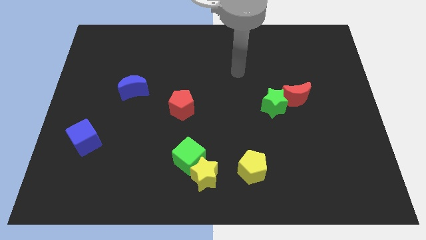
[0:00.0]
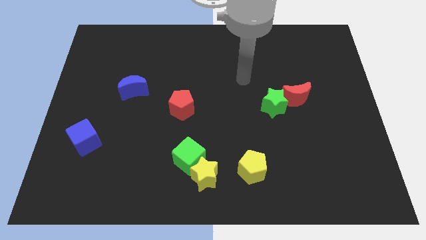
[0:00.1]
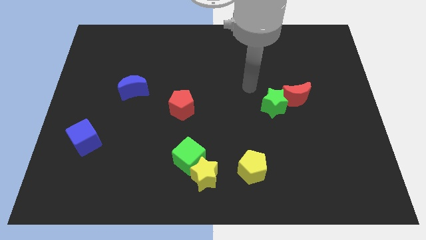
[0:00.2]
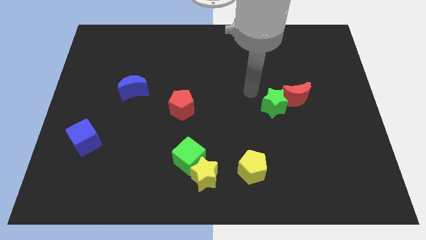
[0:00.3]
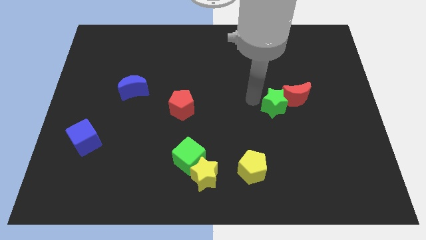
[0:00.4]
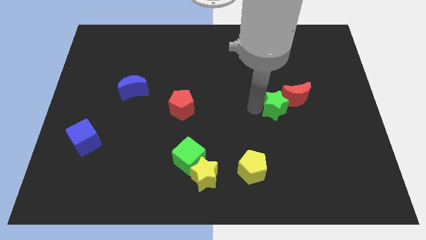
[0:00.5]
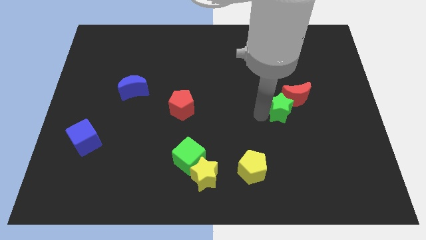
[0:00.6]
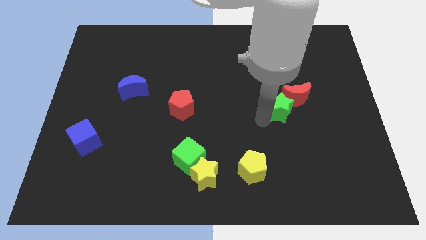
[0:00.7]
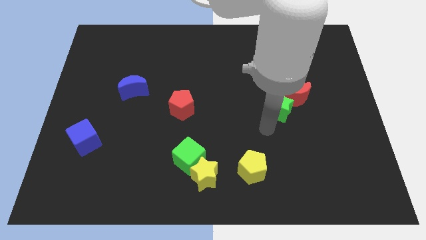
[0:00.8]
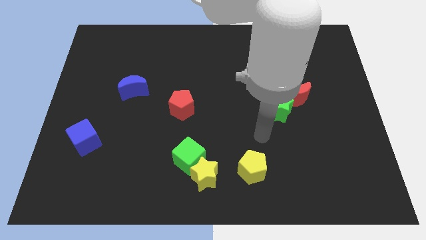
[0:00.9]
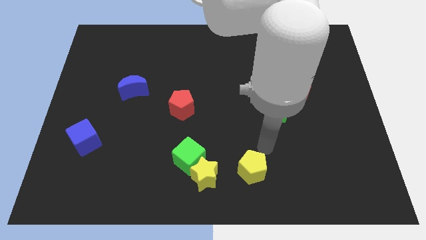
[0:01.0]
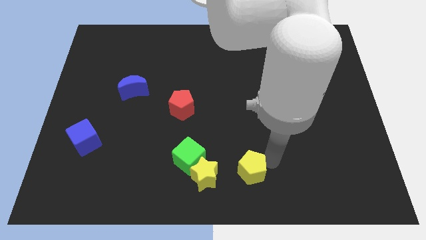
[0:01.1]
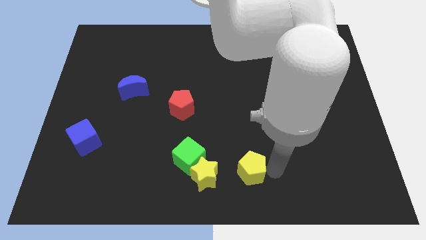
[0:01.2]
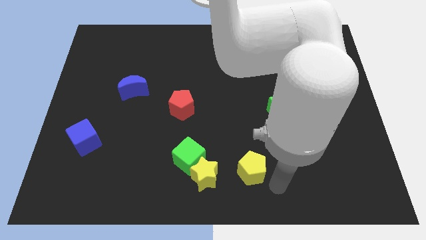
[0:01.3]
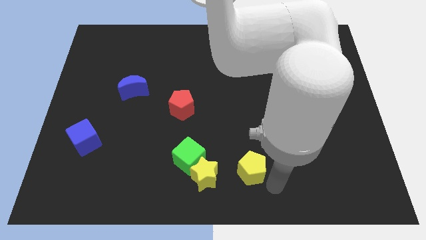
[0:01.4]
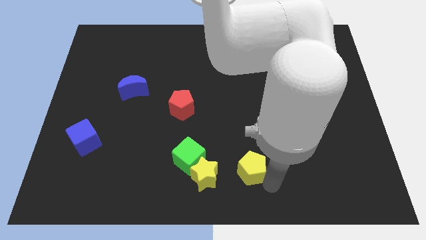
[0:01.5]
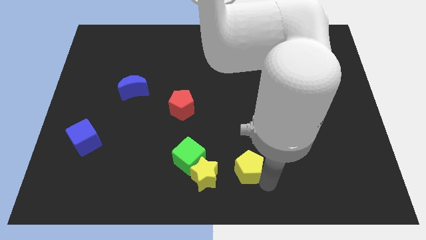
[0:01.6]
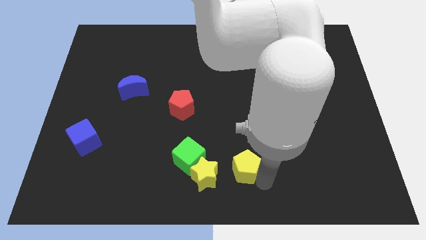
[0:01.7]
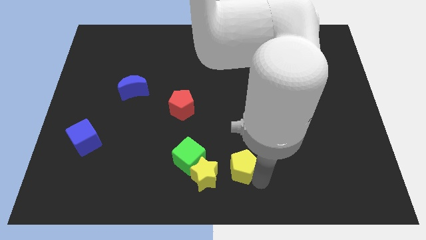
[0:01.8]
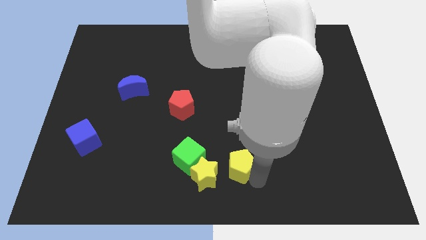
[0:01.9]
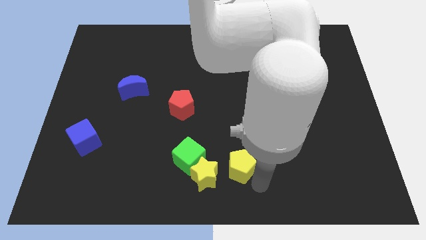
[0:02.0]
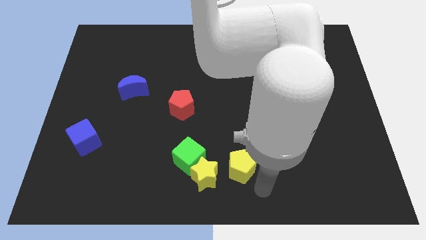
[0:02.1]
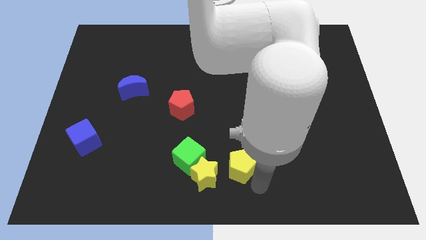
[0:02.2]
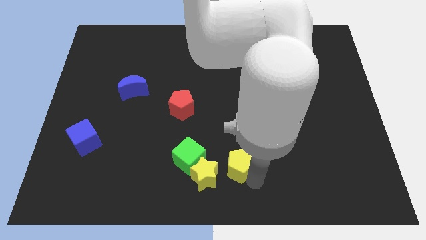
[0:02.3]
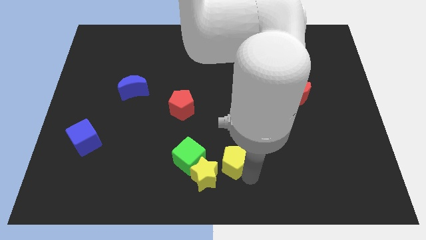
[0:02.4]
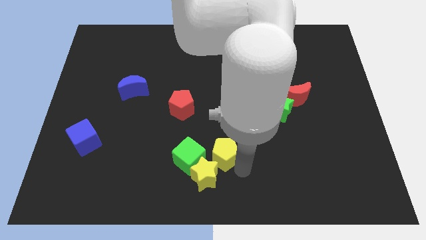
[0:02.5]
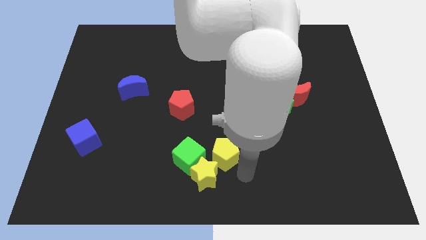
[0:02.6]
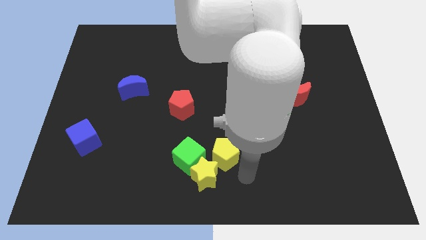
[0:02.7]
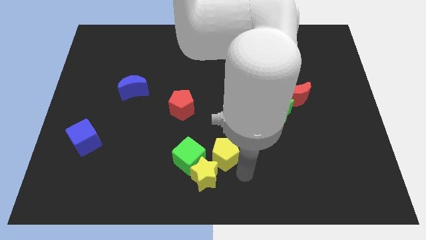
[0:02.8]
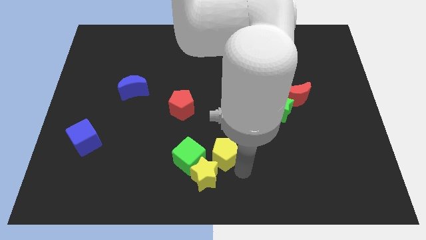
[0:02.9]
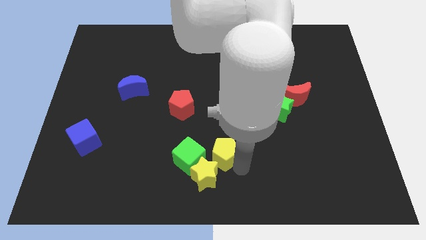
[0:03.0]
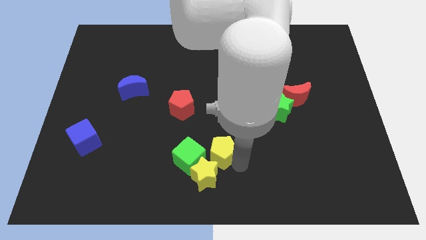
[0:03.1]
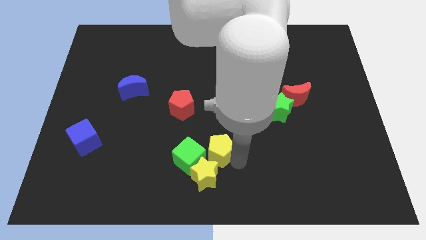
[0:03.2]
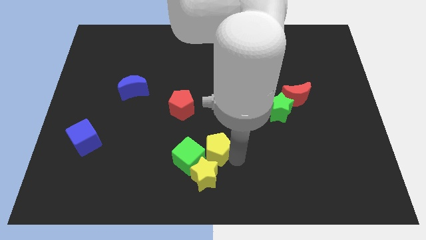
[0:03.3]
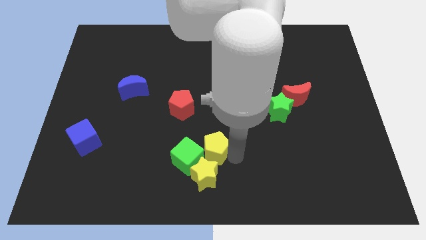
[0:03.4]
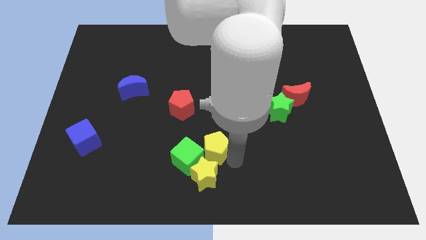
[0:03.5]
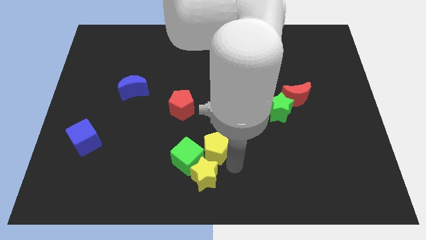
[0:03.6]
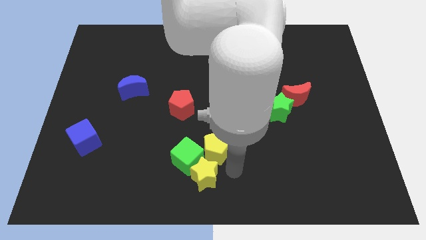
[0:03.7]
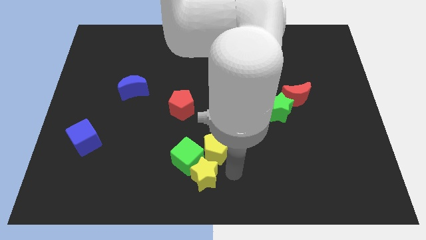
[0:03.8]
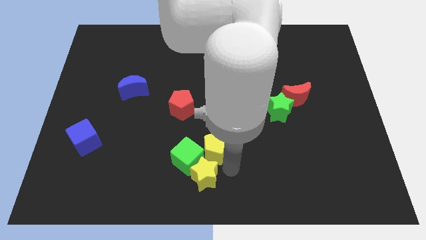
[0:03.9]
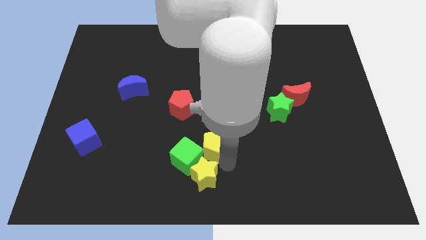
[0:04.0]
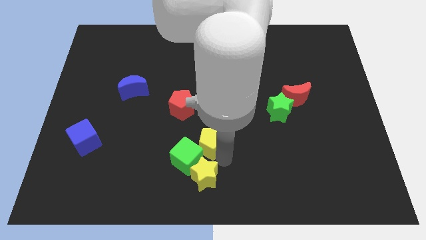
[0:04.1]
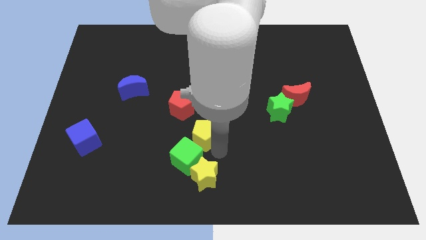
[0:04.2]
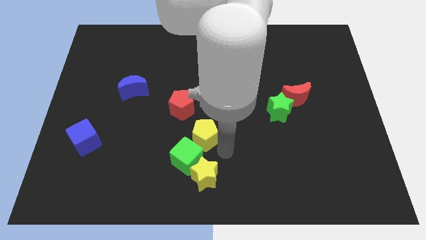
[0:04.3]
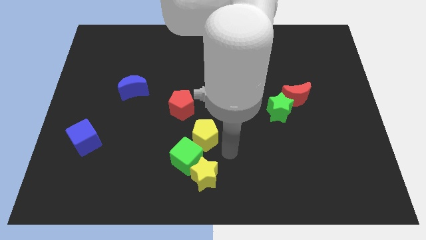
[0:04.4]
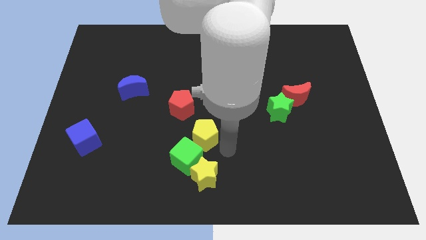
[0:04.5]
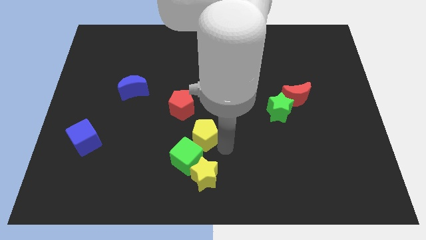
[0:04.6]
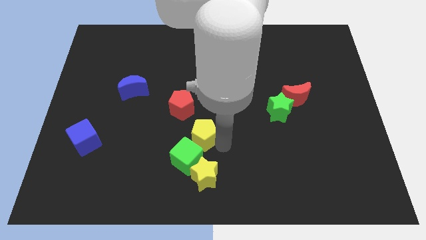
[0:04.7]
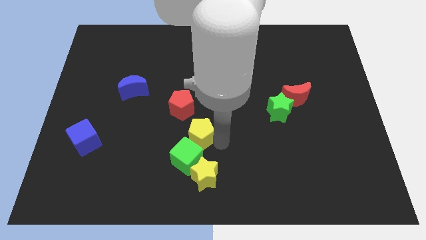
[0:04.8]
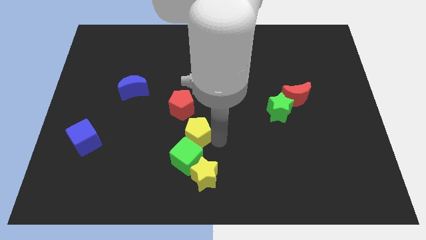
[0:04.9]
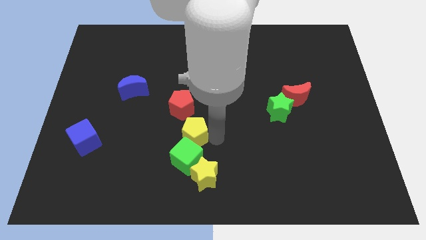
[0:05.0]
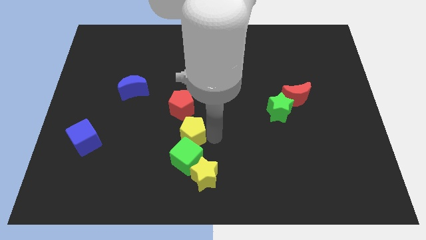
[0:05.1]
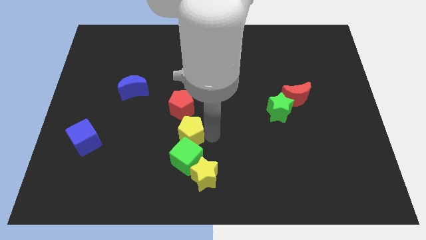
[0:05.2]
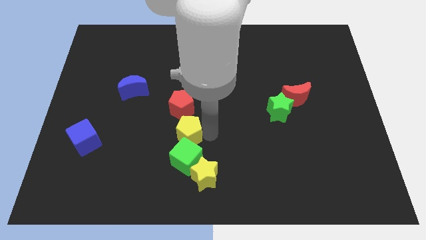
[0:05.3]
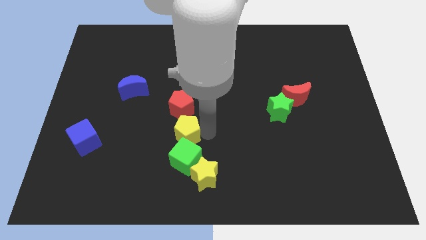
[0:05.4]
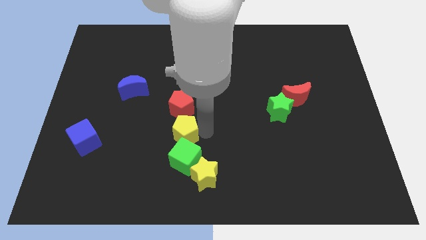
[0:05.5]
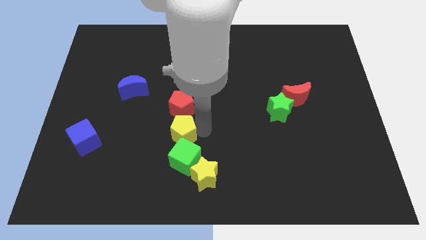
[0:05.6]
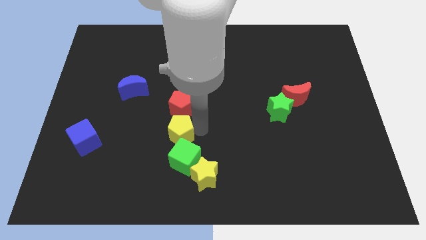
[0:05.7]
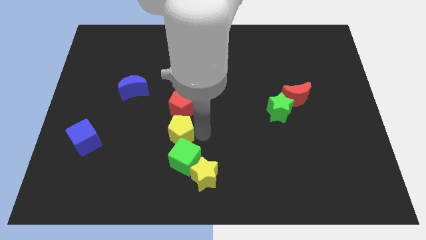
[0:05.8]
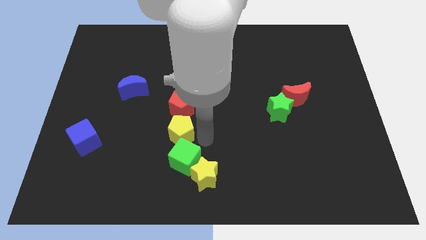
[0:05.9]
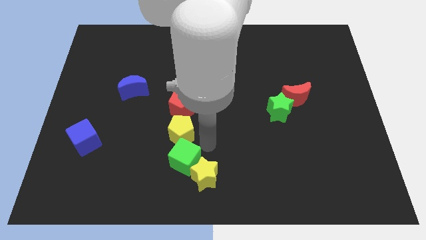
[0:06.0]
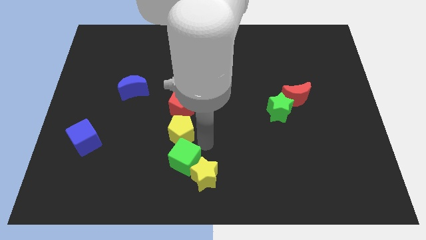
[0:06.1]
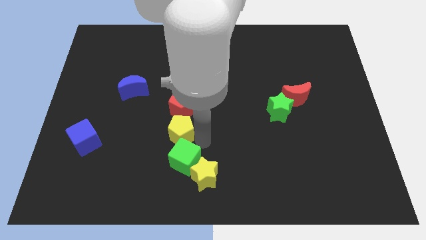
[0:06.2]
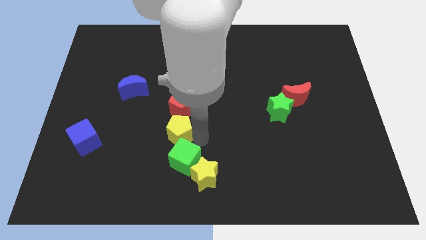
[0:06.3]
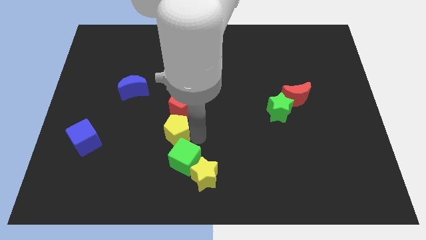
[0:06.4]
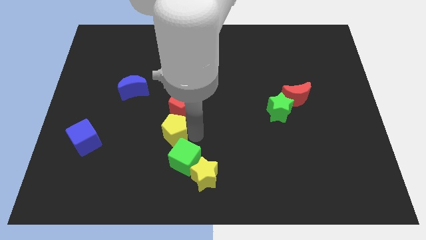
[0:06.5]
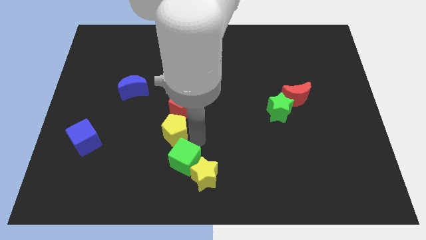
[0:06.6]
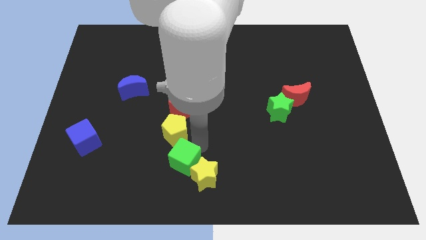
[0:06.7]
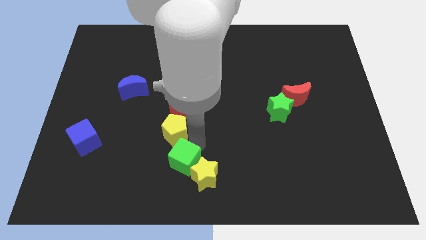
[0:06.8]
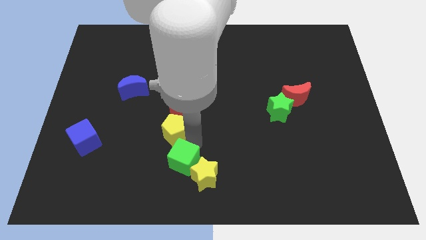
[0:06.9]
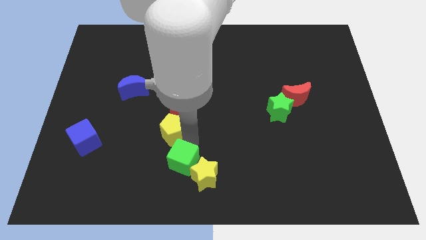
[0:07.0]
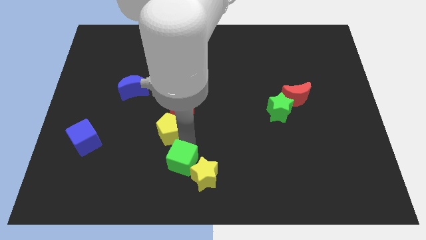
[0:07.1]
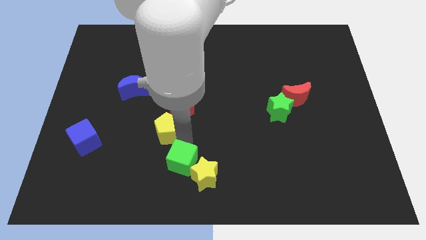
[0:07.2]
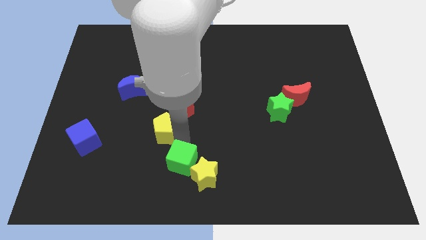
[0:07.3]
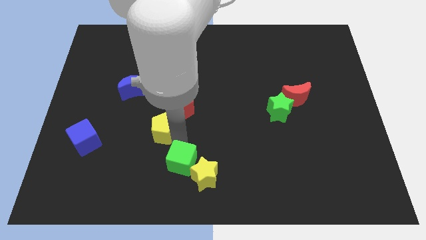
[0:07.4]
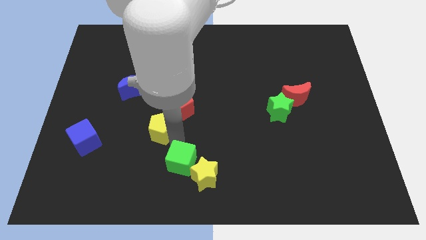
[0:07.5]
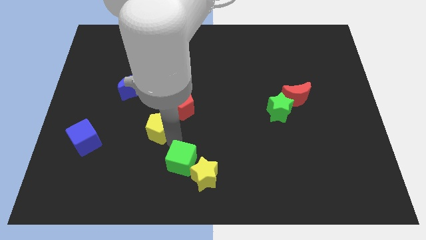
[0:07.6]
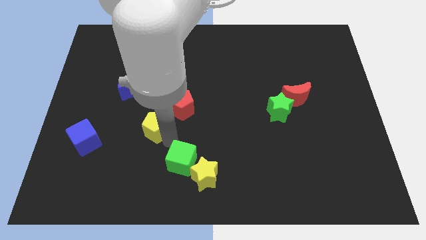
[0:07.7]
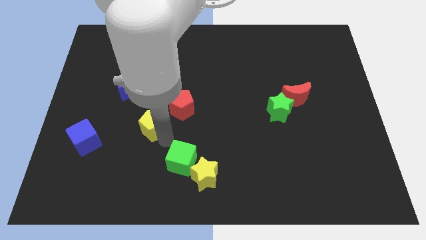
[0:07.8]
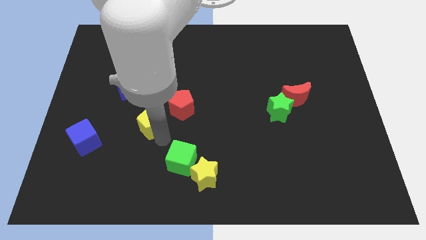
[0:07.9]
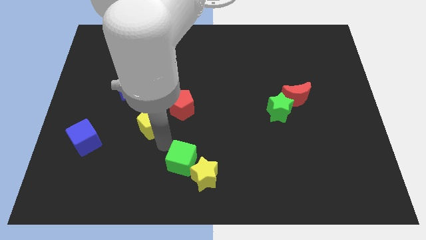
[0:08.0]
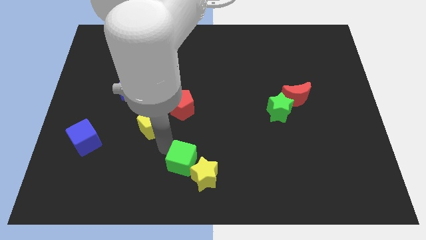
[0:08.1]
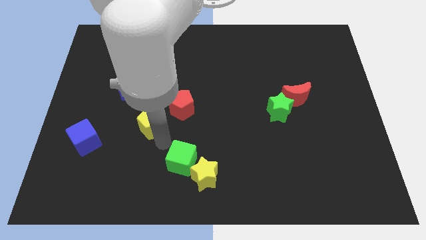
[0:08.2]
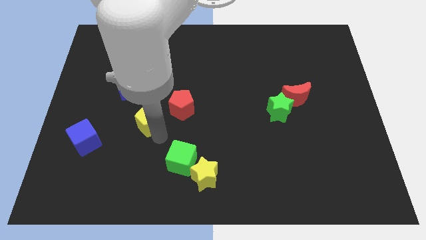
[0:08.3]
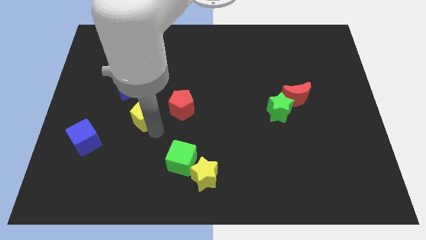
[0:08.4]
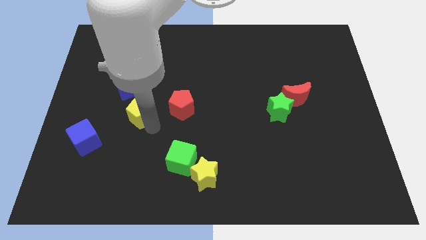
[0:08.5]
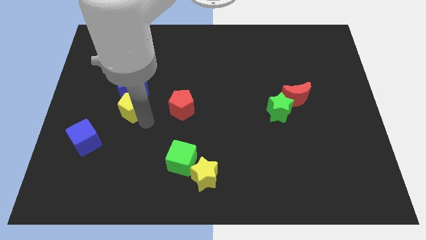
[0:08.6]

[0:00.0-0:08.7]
put the yellow pentagon close to the blue moon
